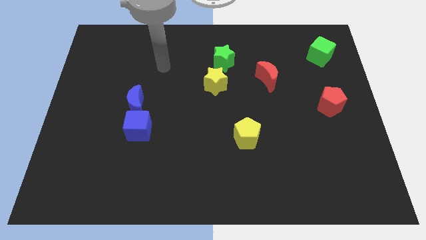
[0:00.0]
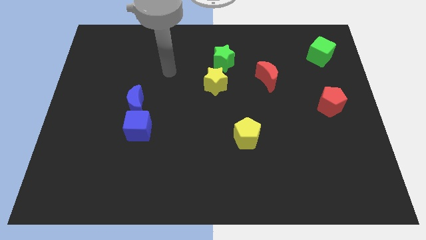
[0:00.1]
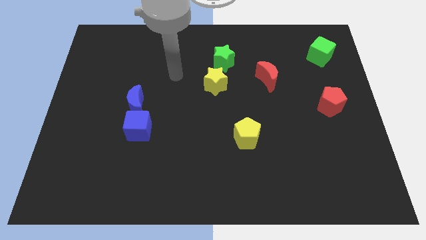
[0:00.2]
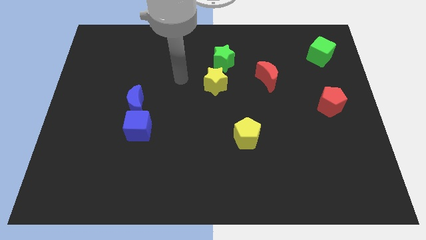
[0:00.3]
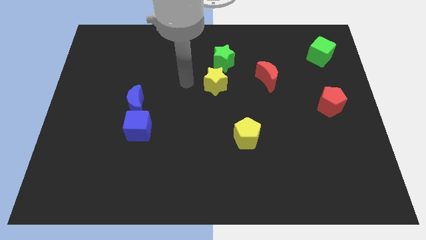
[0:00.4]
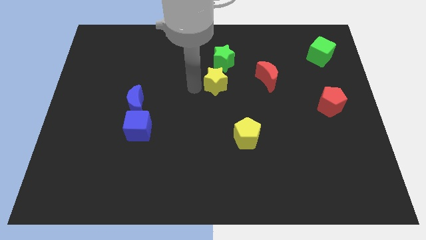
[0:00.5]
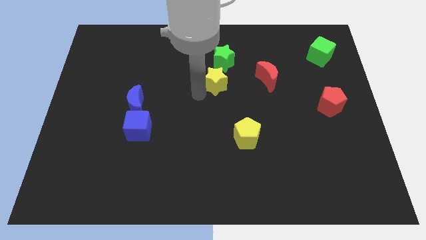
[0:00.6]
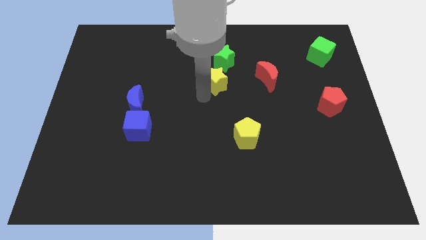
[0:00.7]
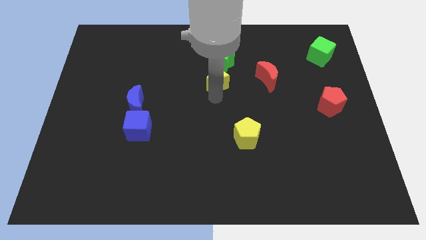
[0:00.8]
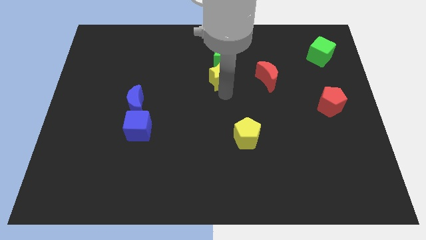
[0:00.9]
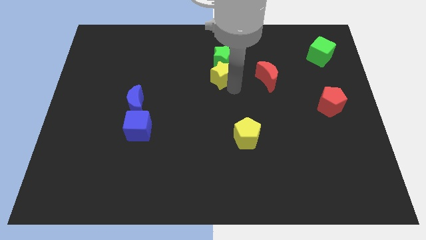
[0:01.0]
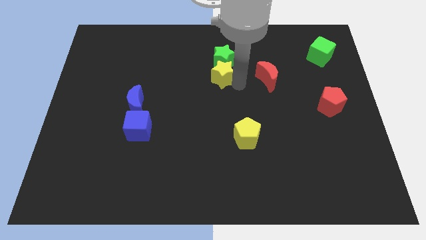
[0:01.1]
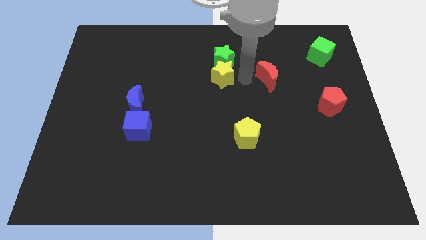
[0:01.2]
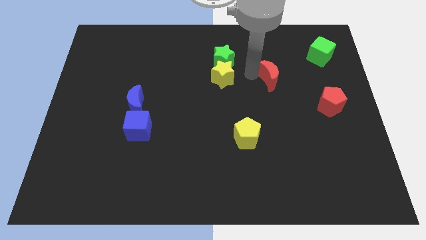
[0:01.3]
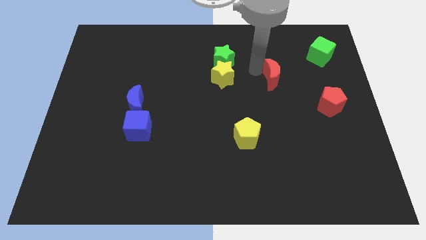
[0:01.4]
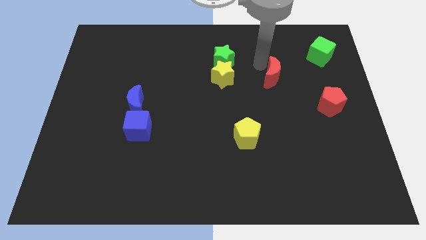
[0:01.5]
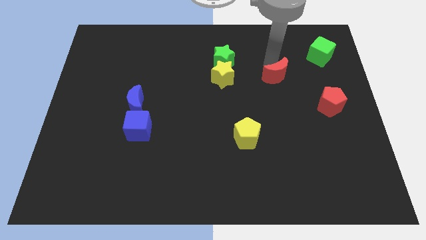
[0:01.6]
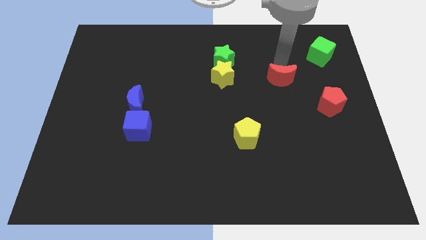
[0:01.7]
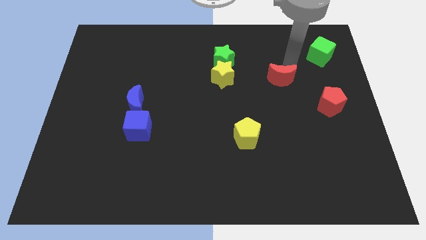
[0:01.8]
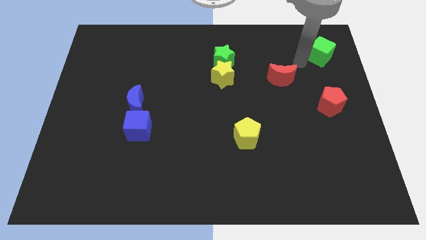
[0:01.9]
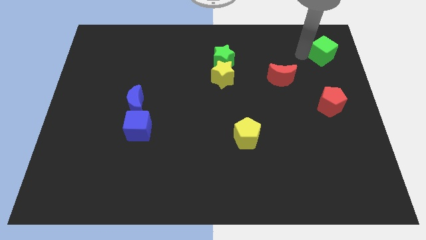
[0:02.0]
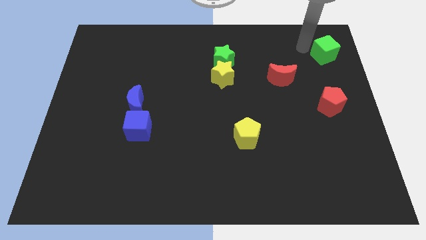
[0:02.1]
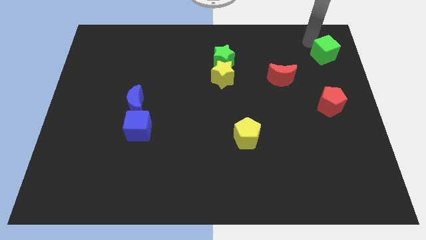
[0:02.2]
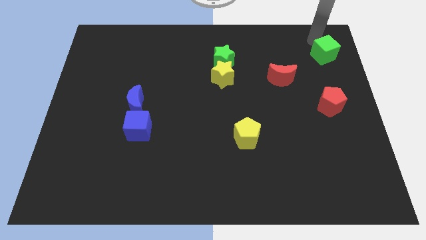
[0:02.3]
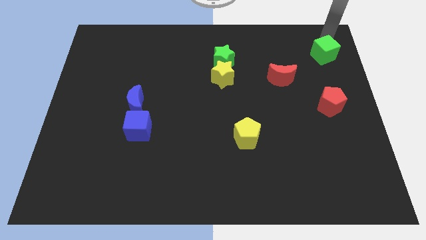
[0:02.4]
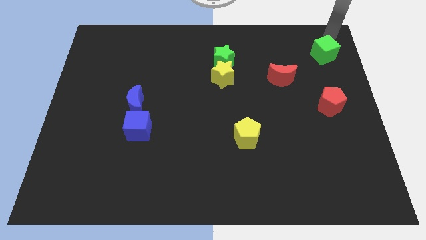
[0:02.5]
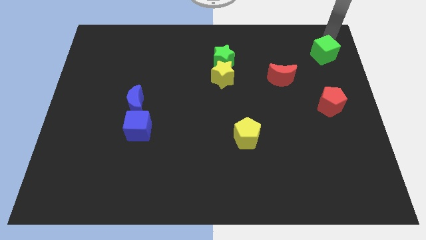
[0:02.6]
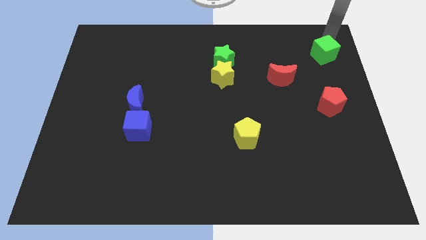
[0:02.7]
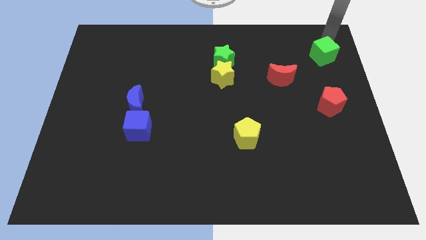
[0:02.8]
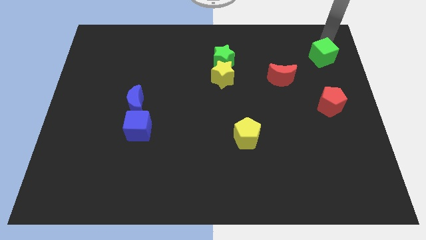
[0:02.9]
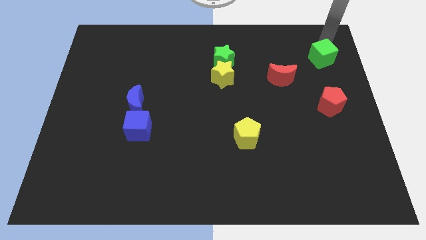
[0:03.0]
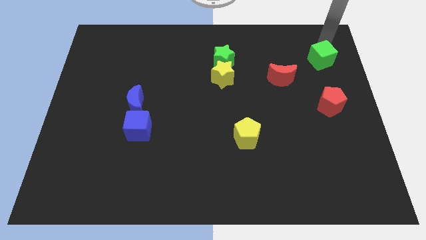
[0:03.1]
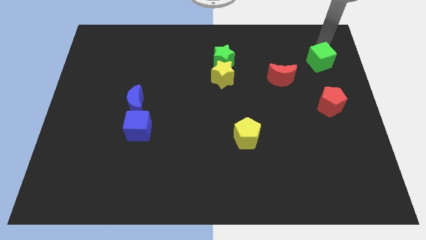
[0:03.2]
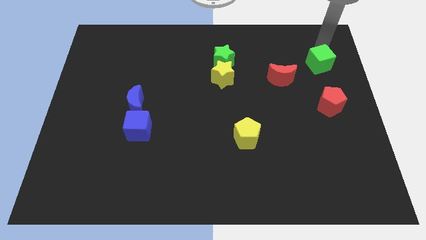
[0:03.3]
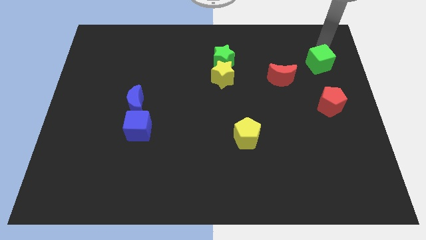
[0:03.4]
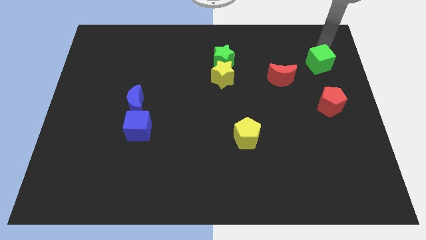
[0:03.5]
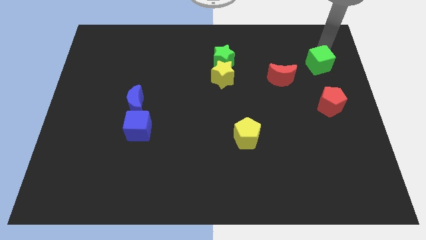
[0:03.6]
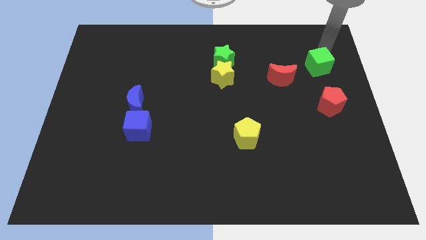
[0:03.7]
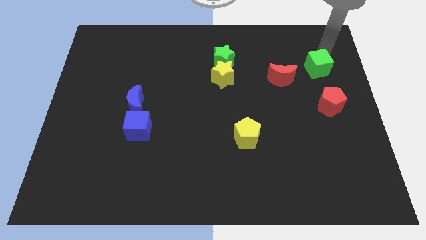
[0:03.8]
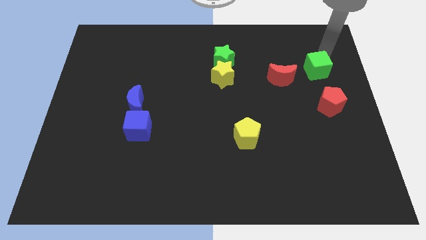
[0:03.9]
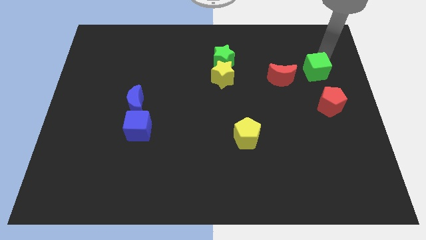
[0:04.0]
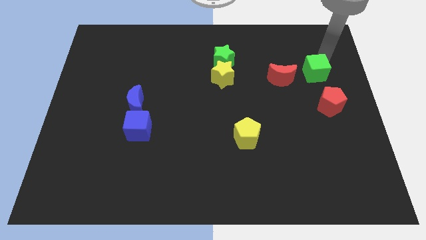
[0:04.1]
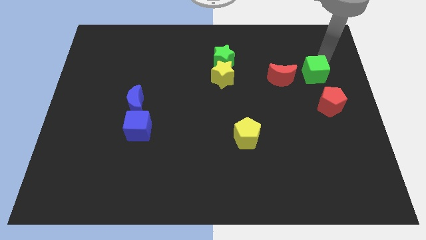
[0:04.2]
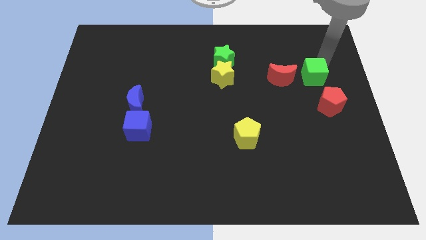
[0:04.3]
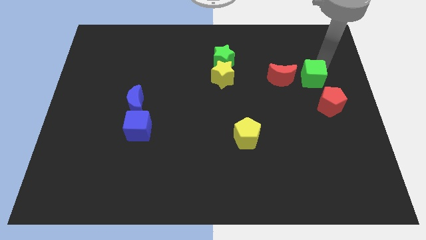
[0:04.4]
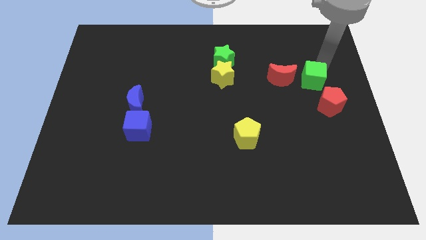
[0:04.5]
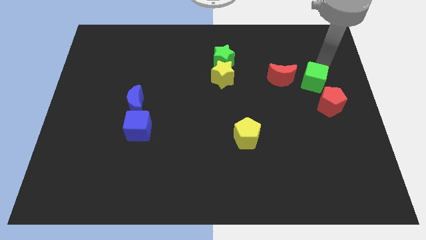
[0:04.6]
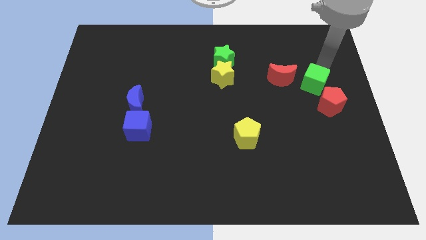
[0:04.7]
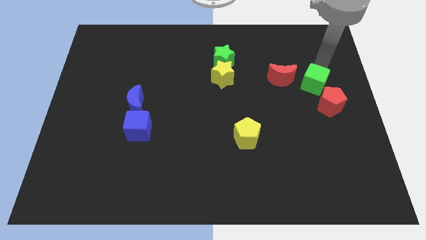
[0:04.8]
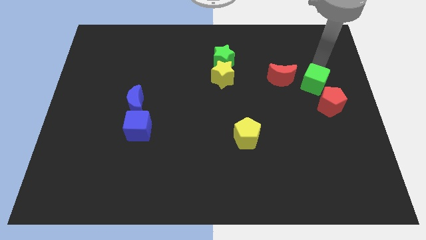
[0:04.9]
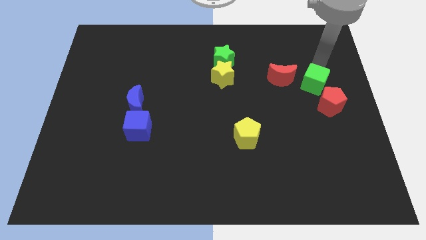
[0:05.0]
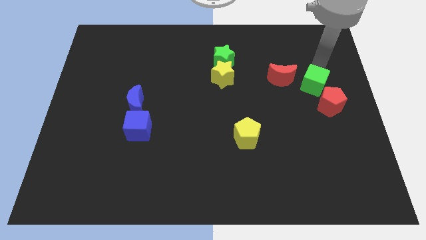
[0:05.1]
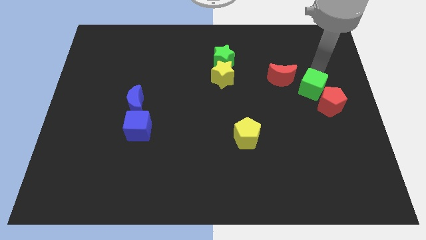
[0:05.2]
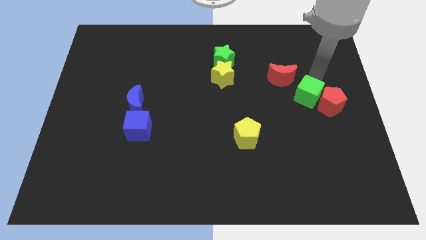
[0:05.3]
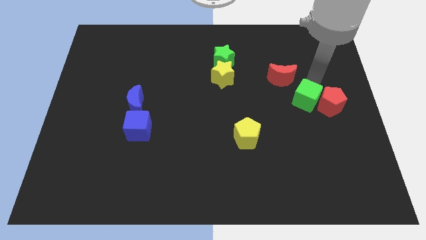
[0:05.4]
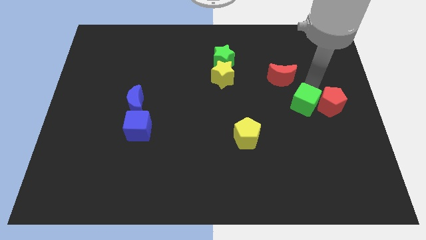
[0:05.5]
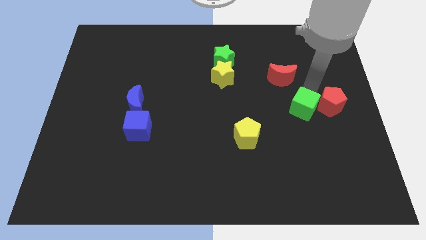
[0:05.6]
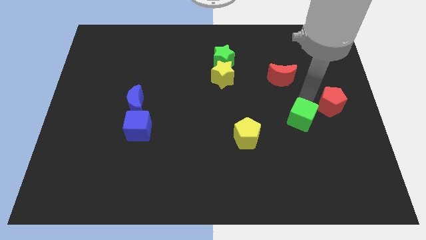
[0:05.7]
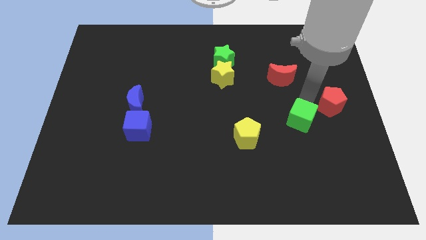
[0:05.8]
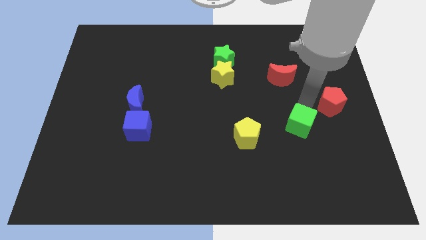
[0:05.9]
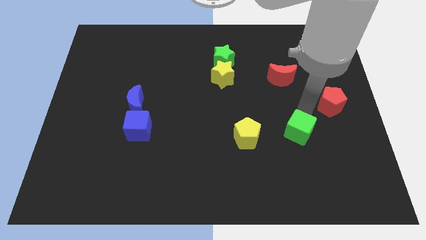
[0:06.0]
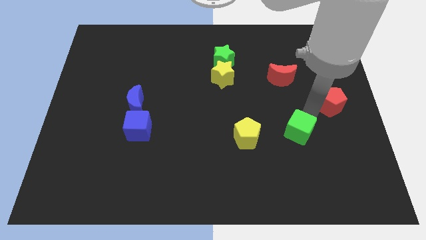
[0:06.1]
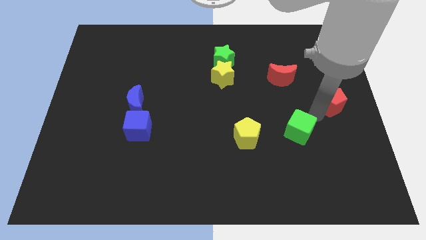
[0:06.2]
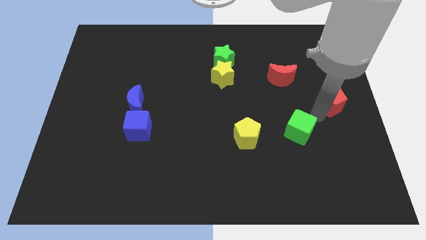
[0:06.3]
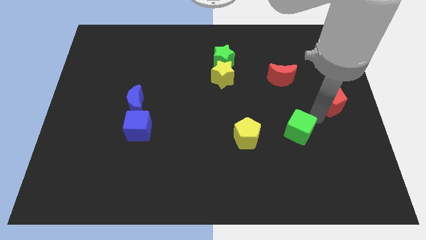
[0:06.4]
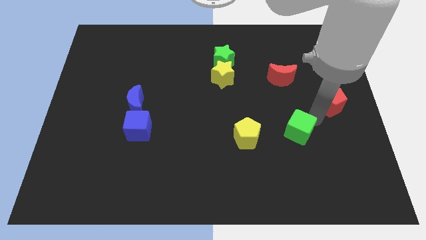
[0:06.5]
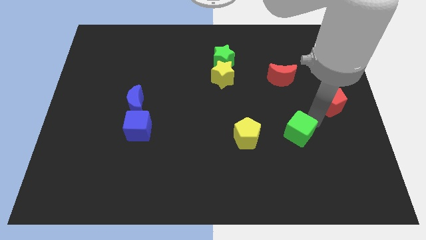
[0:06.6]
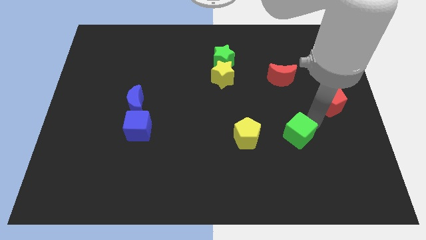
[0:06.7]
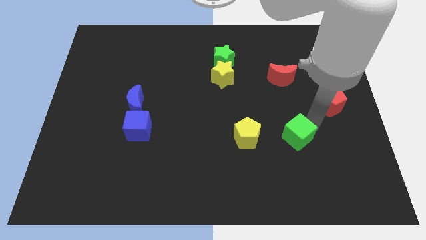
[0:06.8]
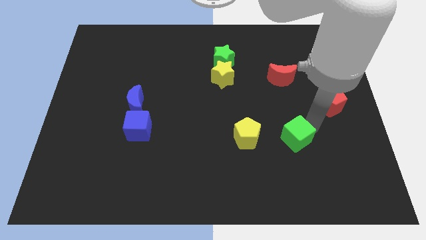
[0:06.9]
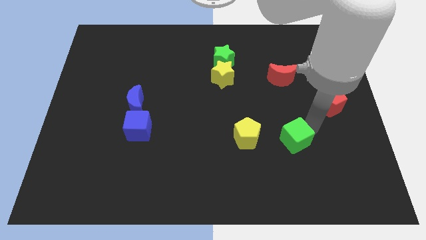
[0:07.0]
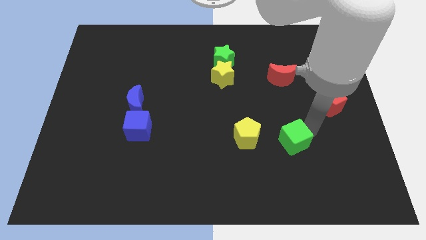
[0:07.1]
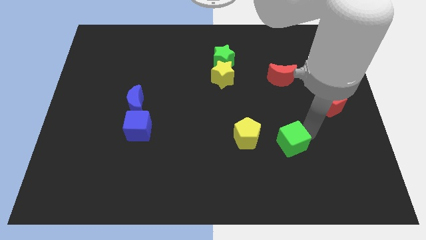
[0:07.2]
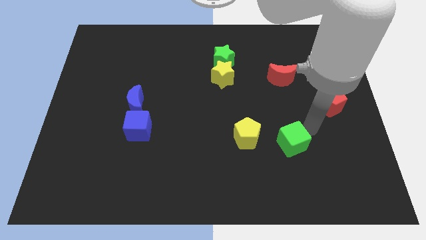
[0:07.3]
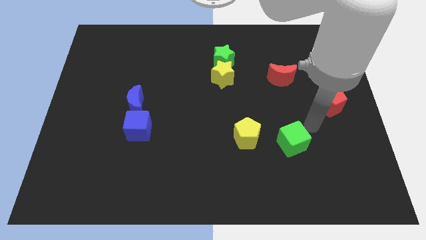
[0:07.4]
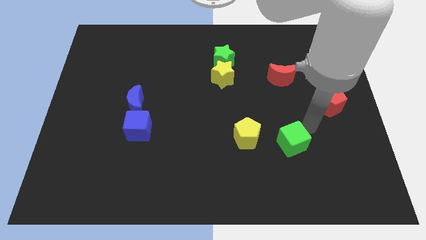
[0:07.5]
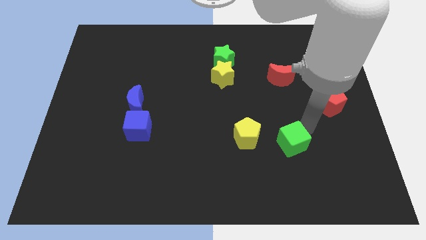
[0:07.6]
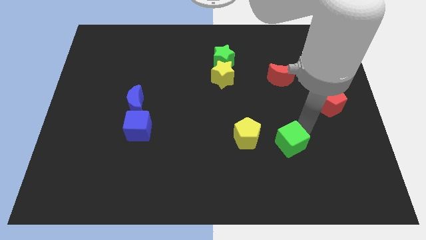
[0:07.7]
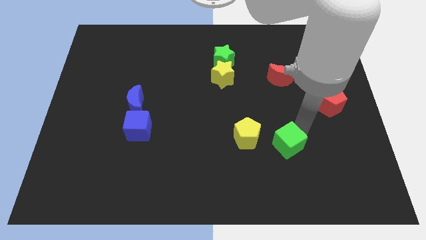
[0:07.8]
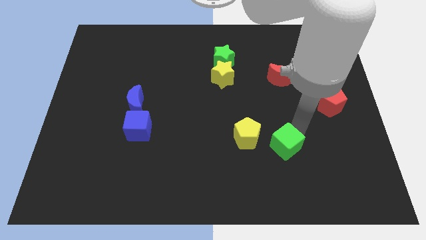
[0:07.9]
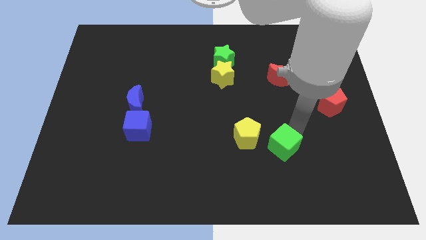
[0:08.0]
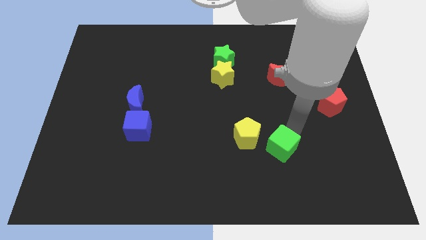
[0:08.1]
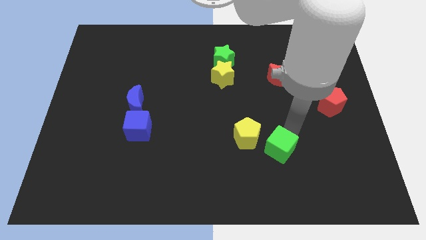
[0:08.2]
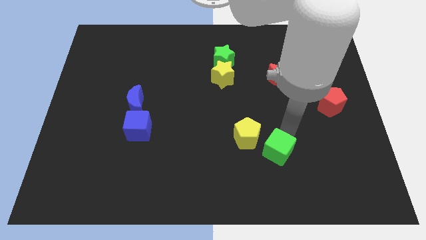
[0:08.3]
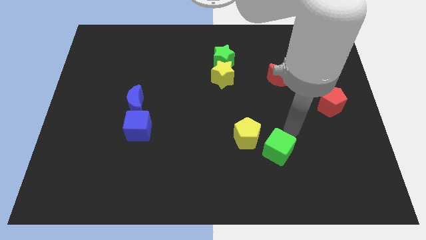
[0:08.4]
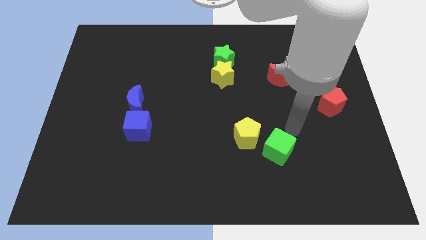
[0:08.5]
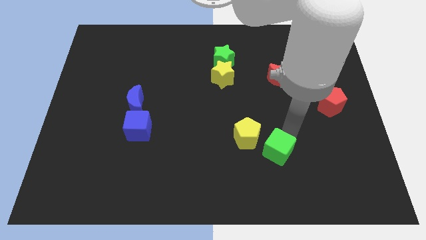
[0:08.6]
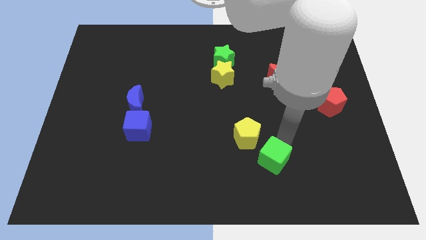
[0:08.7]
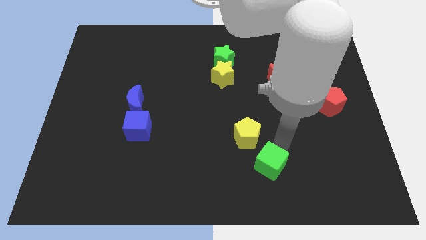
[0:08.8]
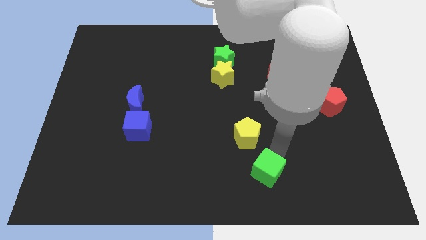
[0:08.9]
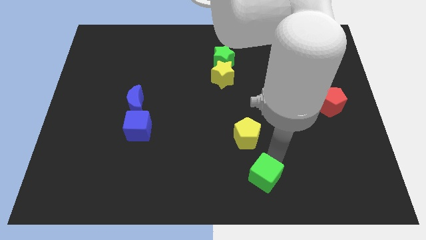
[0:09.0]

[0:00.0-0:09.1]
slide the green cube to the bottom side
